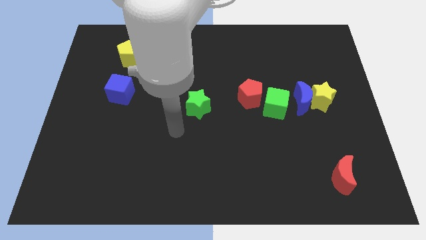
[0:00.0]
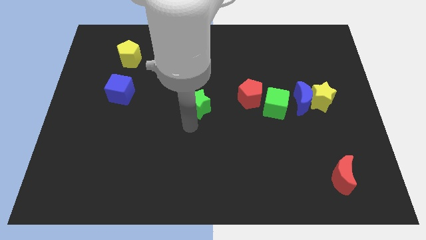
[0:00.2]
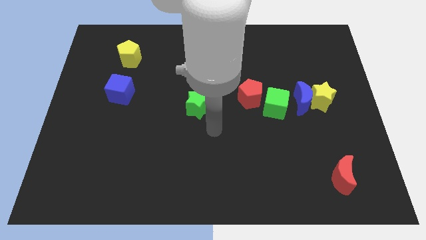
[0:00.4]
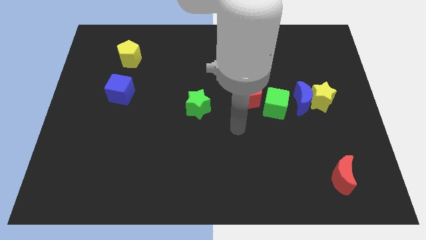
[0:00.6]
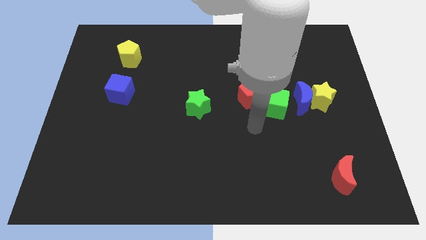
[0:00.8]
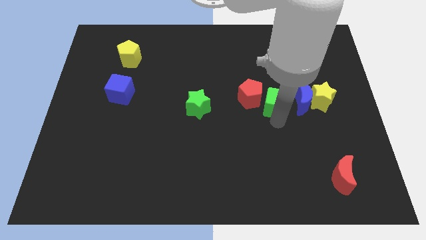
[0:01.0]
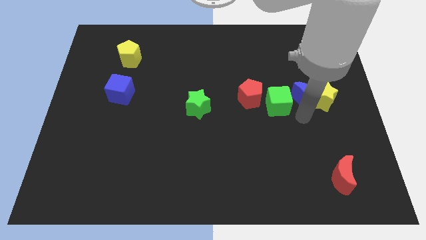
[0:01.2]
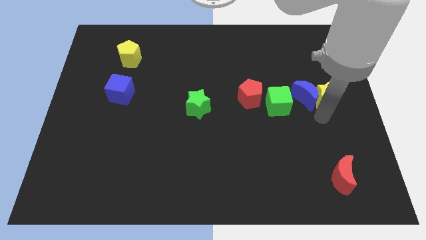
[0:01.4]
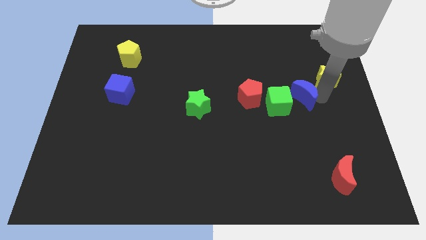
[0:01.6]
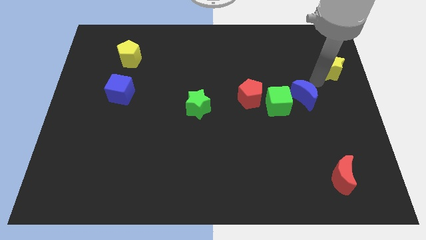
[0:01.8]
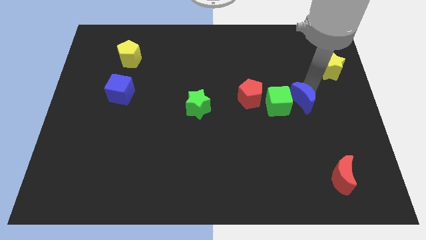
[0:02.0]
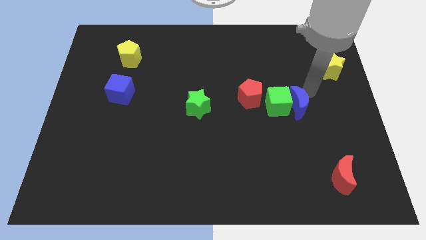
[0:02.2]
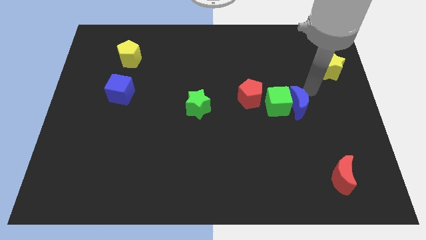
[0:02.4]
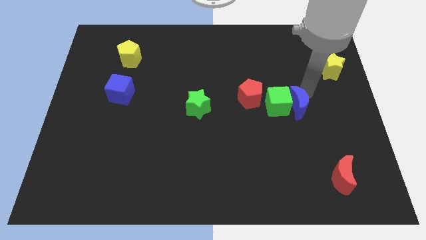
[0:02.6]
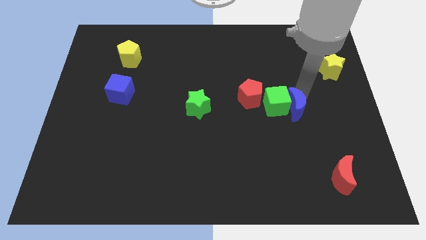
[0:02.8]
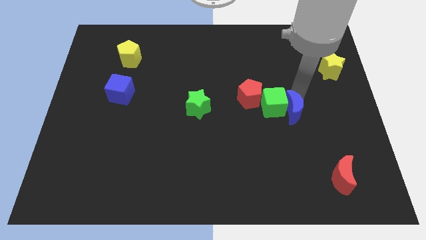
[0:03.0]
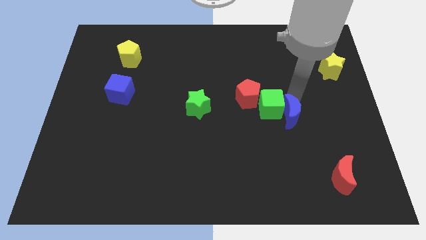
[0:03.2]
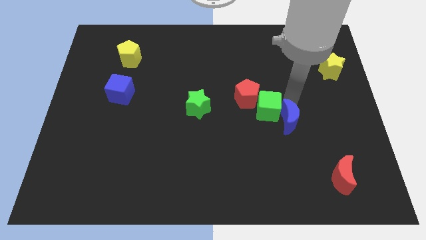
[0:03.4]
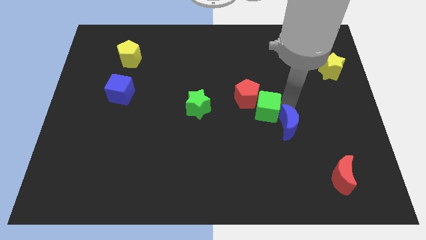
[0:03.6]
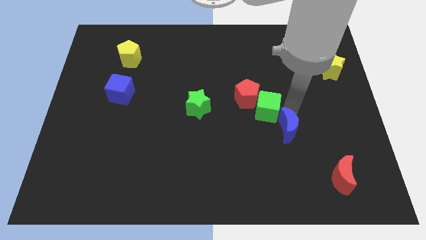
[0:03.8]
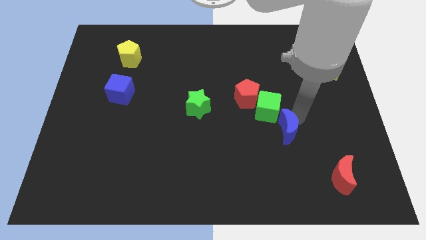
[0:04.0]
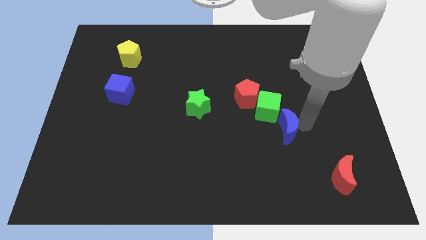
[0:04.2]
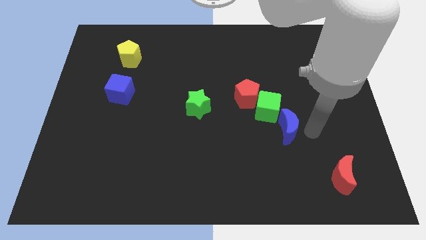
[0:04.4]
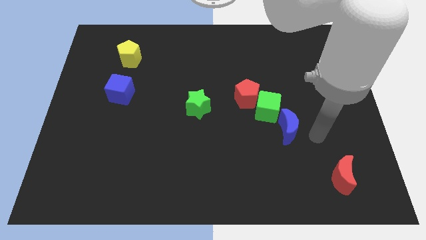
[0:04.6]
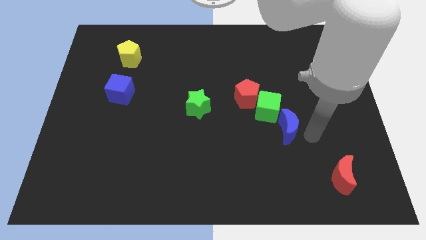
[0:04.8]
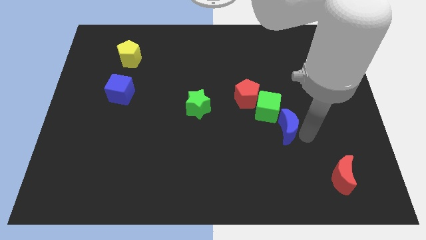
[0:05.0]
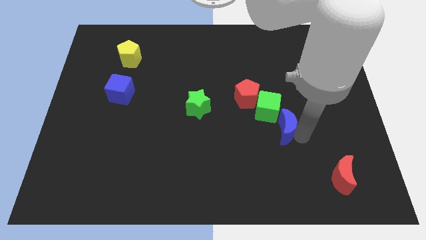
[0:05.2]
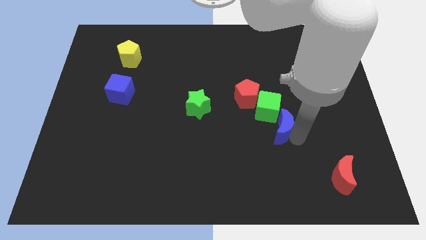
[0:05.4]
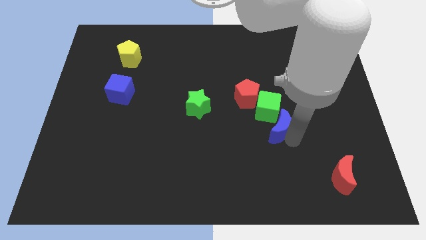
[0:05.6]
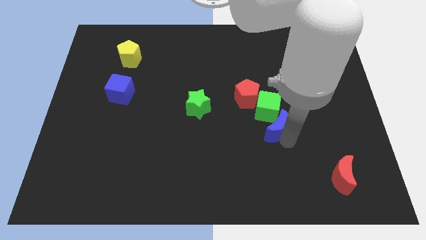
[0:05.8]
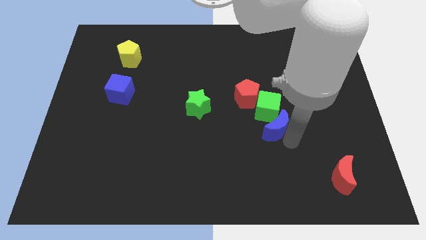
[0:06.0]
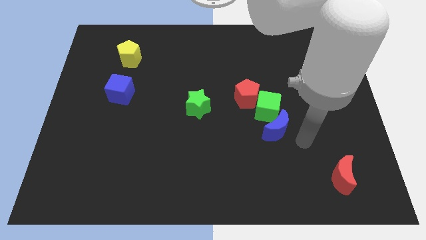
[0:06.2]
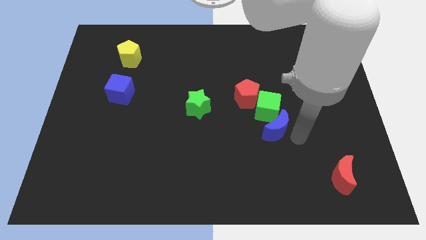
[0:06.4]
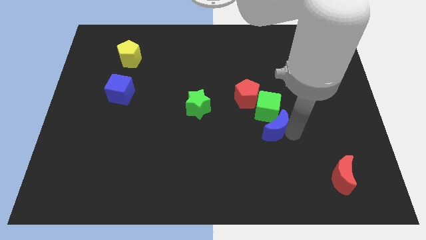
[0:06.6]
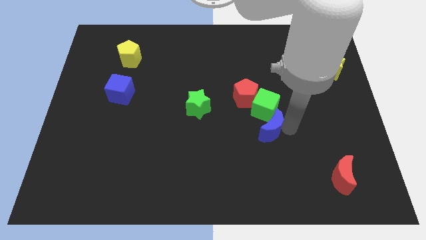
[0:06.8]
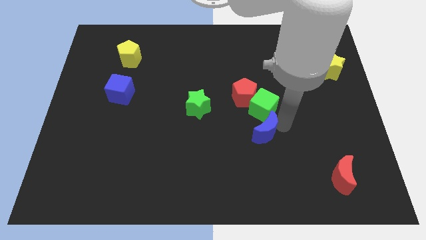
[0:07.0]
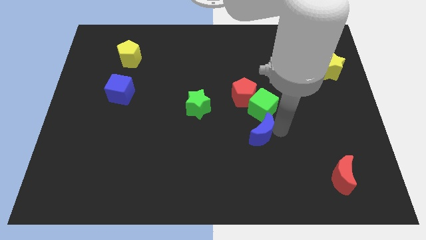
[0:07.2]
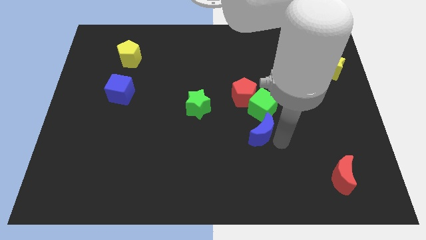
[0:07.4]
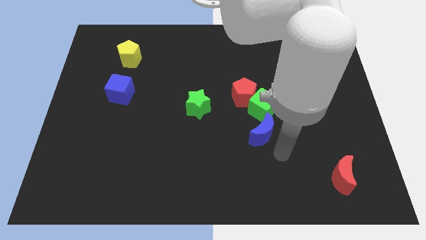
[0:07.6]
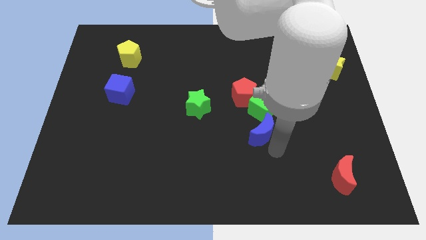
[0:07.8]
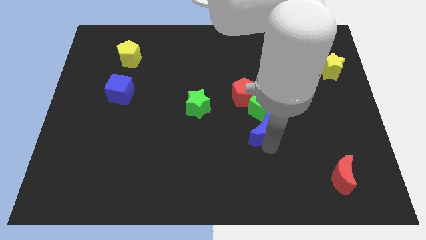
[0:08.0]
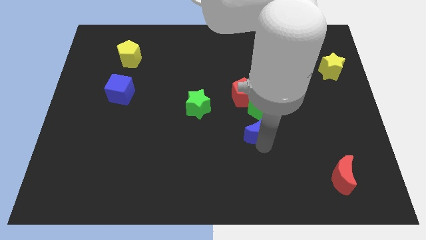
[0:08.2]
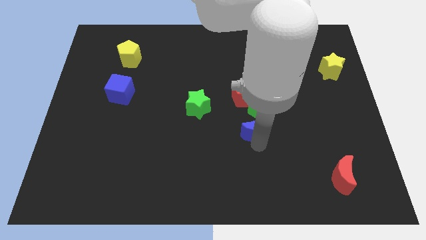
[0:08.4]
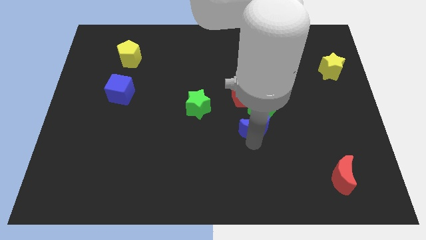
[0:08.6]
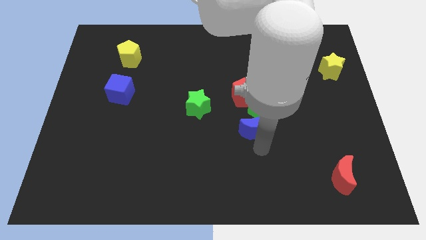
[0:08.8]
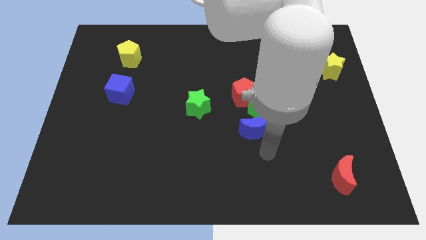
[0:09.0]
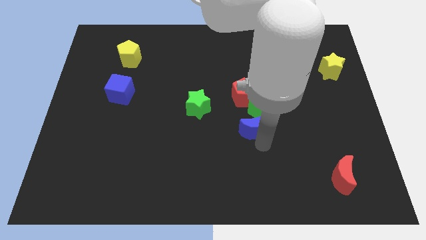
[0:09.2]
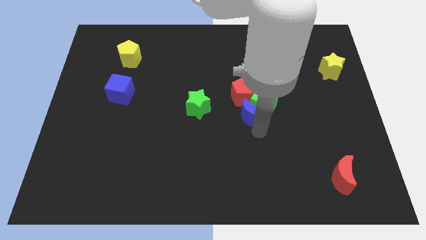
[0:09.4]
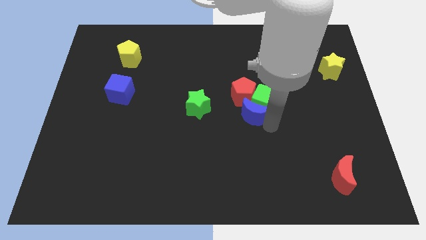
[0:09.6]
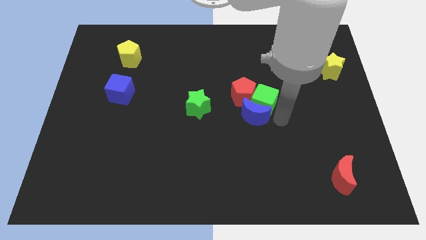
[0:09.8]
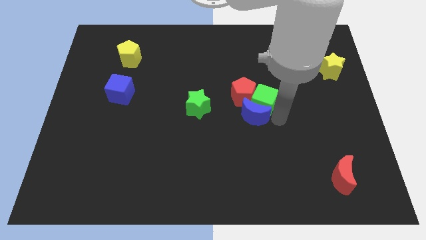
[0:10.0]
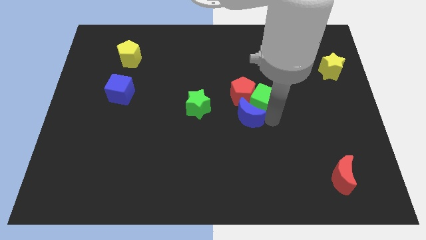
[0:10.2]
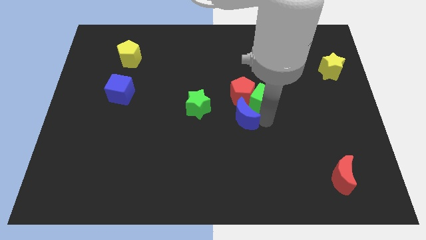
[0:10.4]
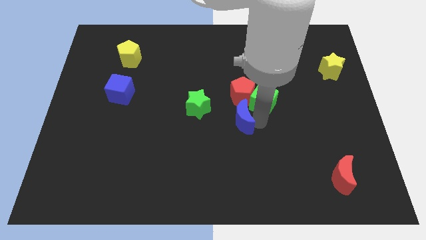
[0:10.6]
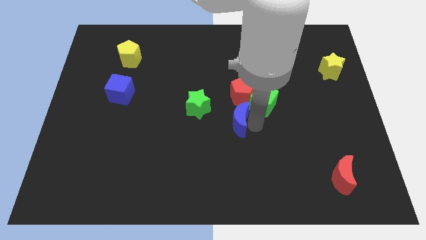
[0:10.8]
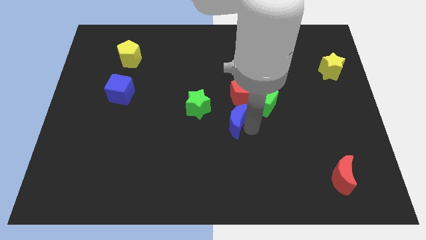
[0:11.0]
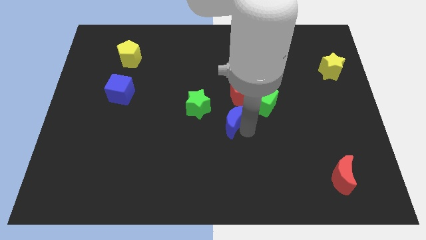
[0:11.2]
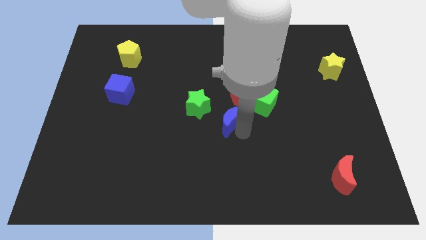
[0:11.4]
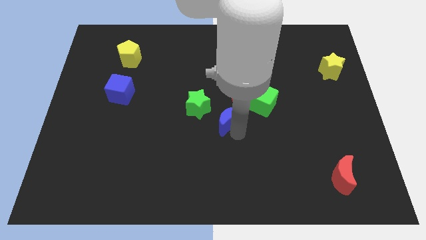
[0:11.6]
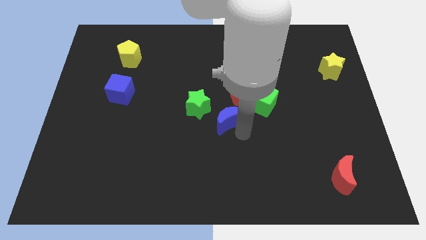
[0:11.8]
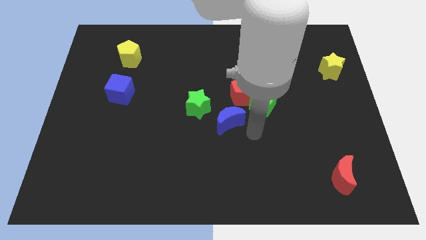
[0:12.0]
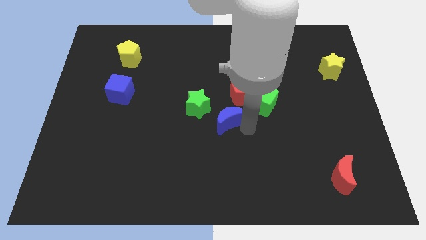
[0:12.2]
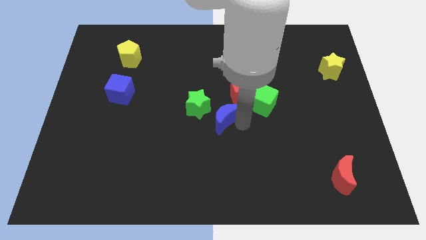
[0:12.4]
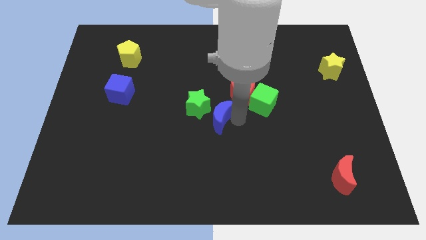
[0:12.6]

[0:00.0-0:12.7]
move the blue moon close to the green star

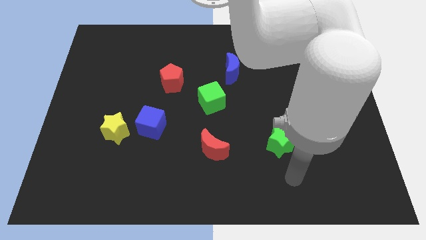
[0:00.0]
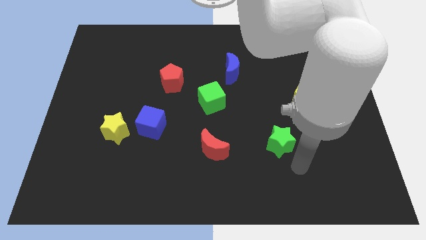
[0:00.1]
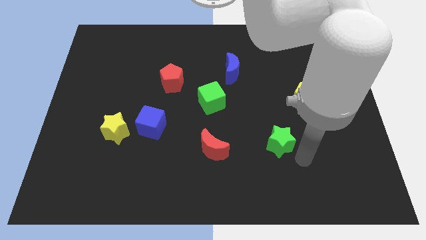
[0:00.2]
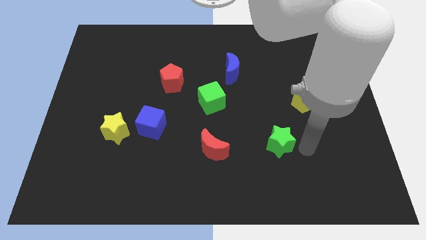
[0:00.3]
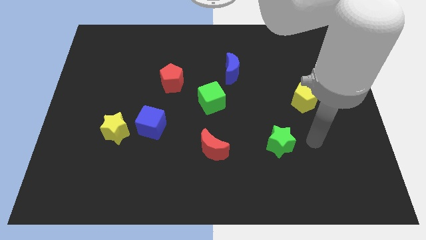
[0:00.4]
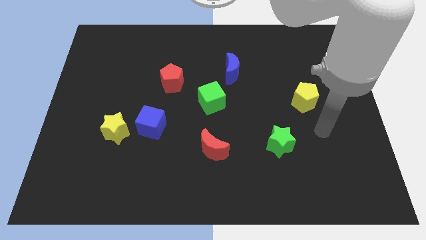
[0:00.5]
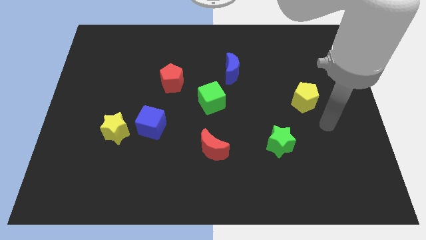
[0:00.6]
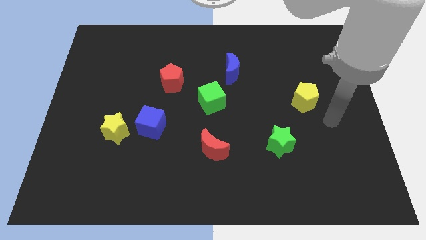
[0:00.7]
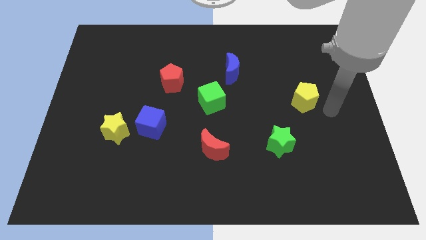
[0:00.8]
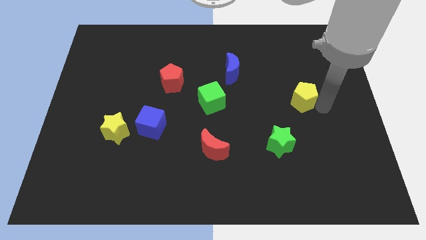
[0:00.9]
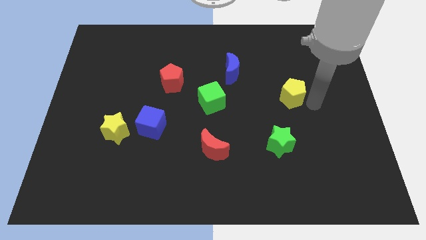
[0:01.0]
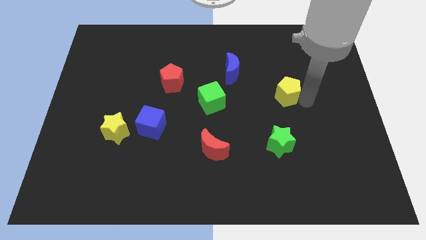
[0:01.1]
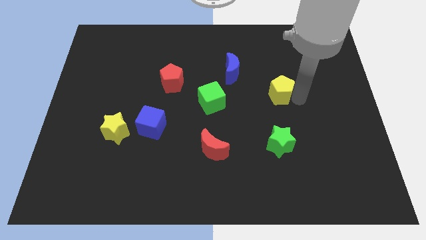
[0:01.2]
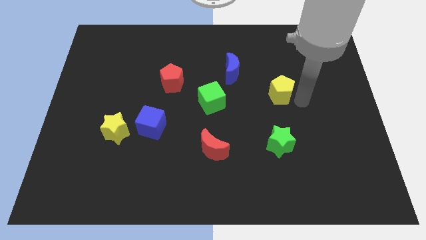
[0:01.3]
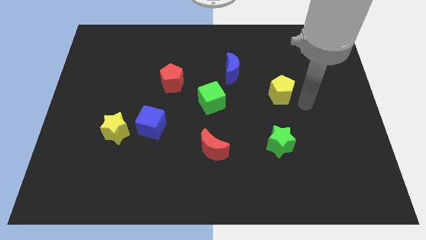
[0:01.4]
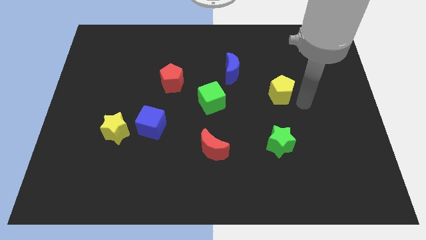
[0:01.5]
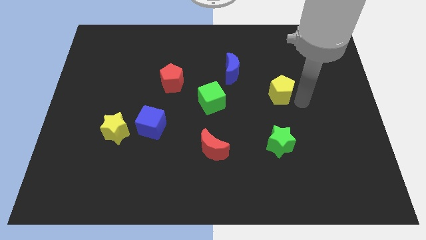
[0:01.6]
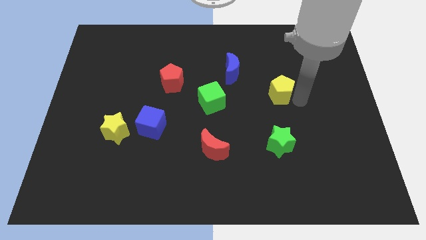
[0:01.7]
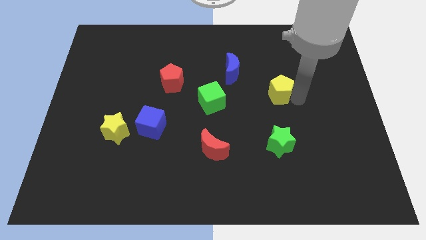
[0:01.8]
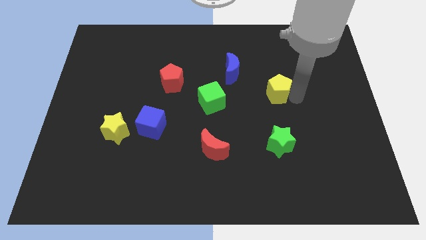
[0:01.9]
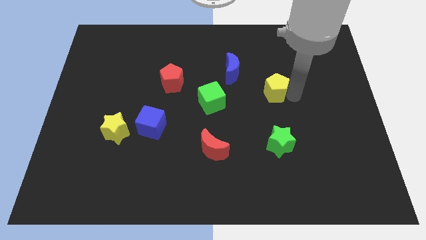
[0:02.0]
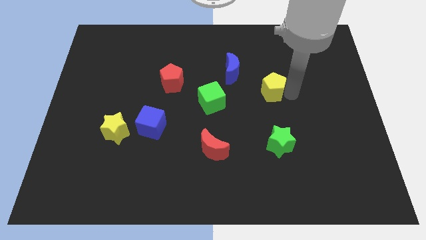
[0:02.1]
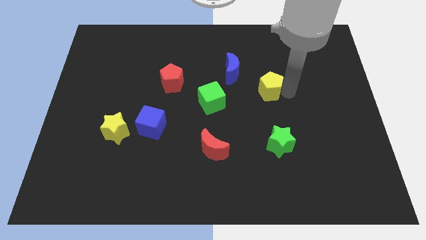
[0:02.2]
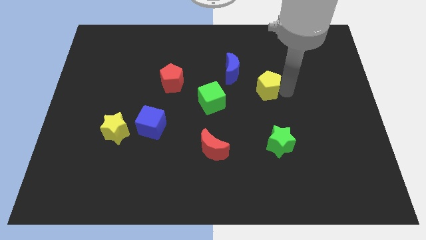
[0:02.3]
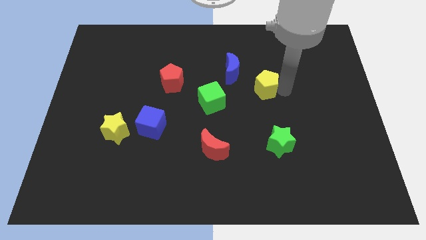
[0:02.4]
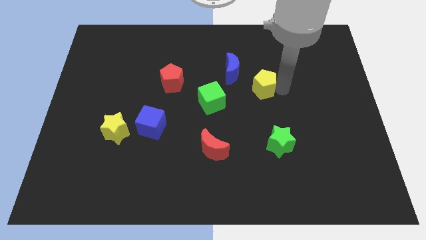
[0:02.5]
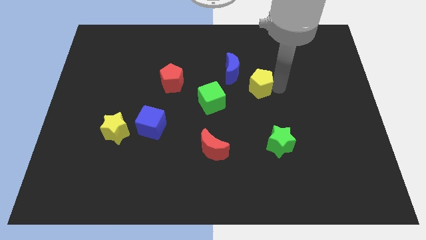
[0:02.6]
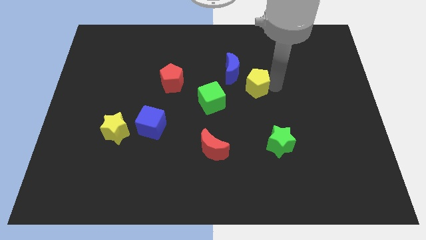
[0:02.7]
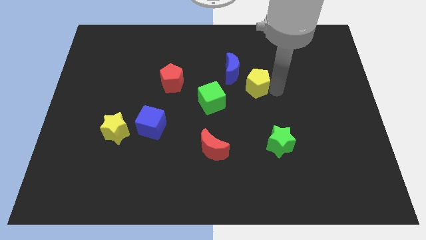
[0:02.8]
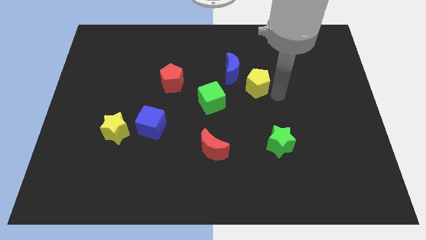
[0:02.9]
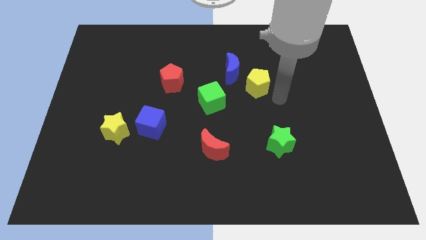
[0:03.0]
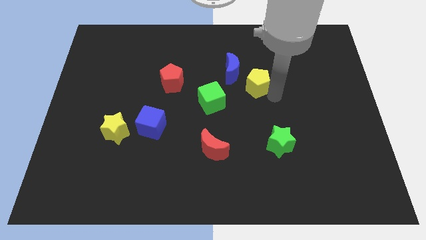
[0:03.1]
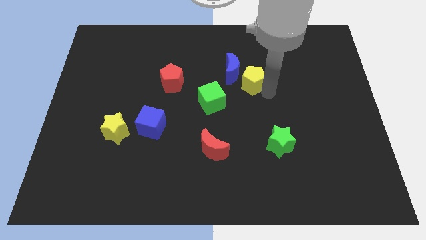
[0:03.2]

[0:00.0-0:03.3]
put the yellow pentagon next to the blue moon
